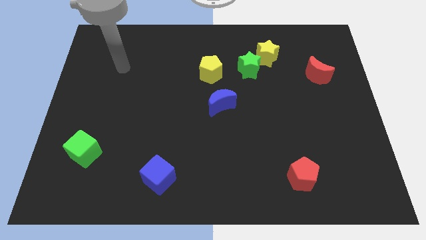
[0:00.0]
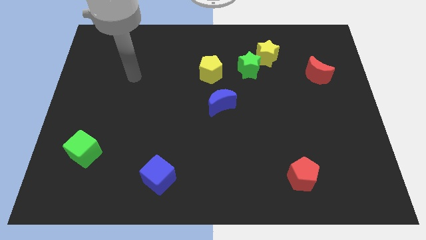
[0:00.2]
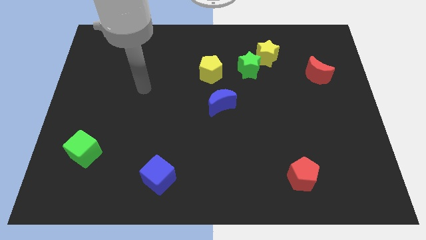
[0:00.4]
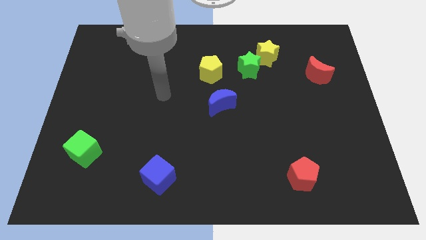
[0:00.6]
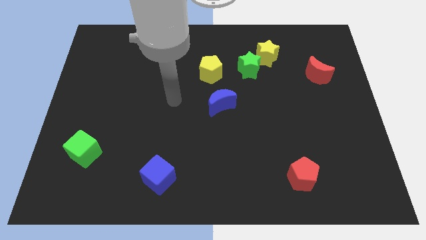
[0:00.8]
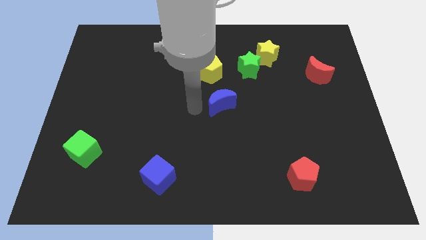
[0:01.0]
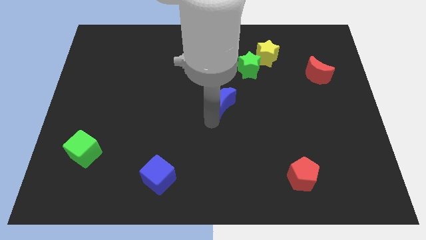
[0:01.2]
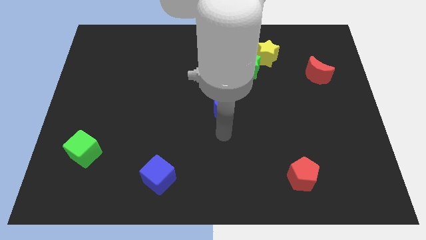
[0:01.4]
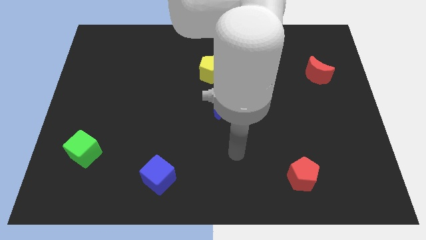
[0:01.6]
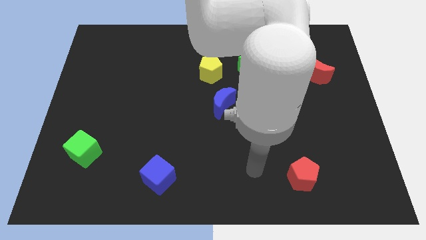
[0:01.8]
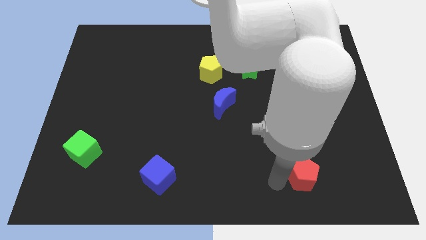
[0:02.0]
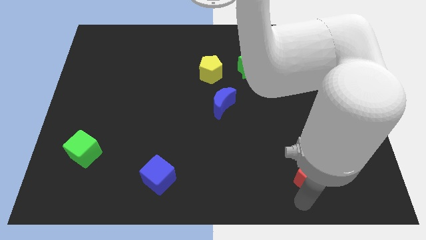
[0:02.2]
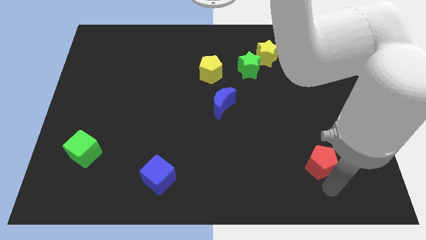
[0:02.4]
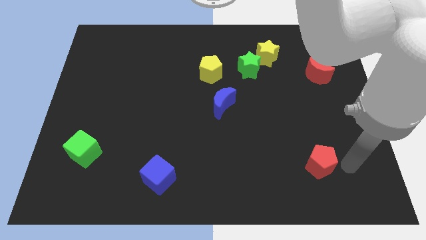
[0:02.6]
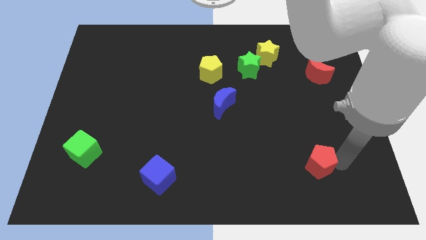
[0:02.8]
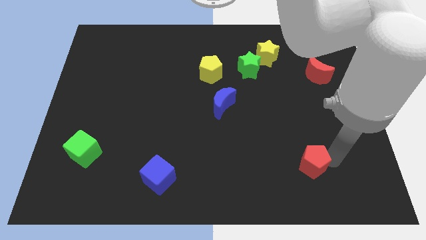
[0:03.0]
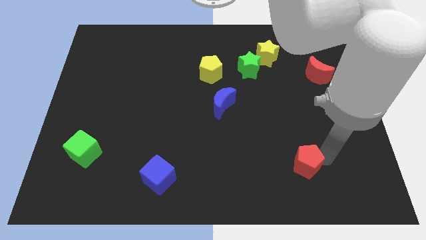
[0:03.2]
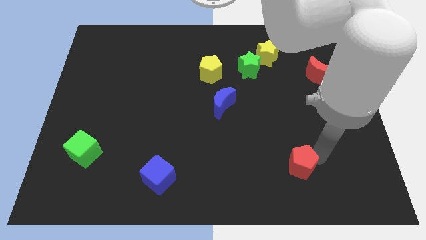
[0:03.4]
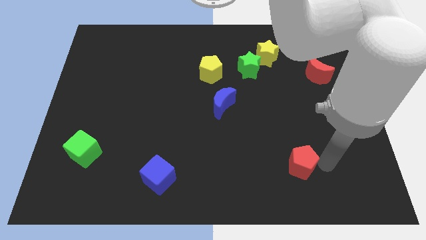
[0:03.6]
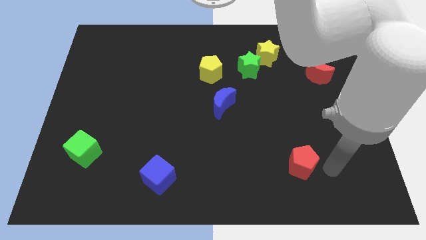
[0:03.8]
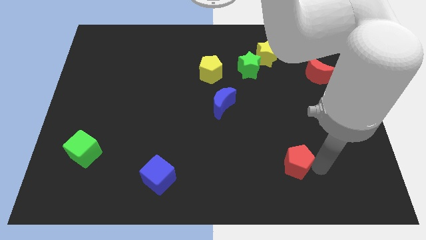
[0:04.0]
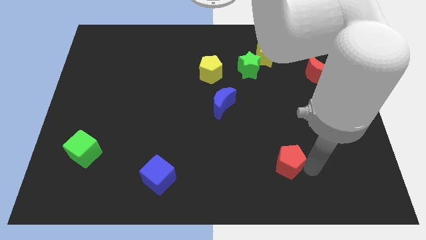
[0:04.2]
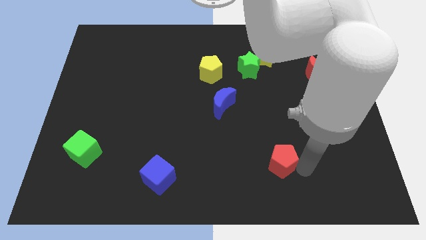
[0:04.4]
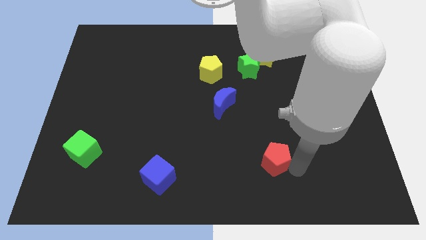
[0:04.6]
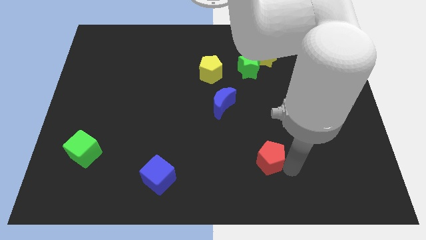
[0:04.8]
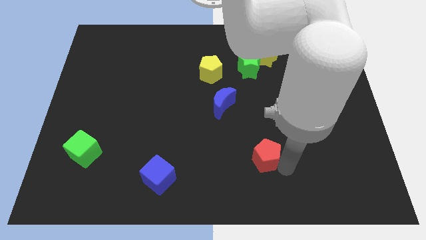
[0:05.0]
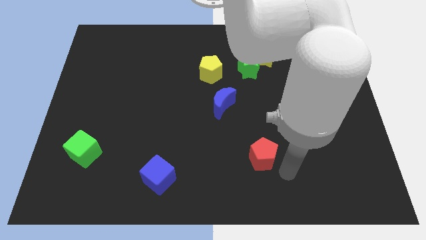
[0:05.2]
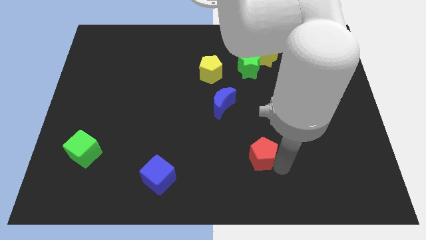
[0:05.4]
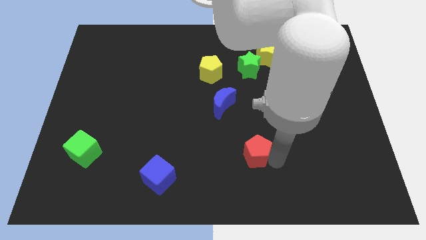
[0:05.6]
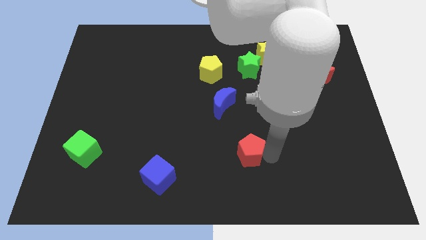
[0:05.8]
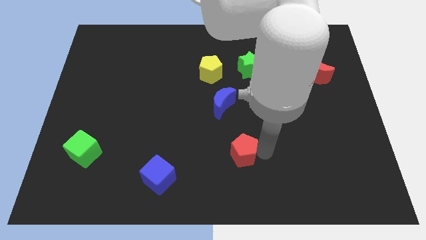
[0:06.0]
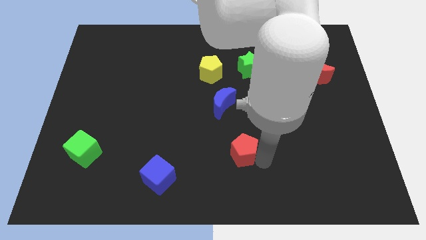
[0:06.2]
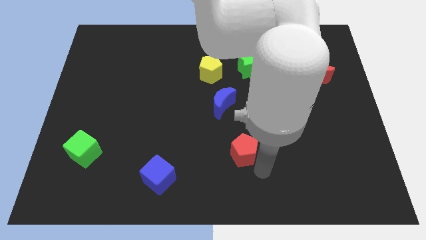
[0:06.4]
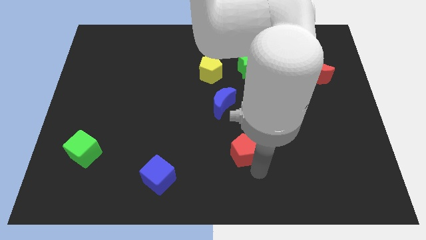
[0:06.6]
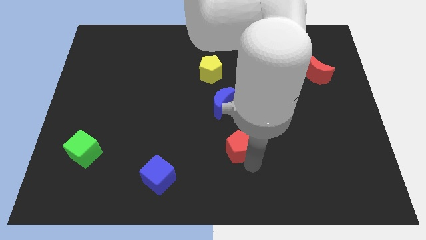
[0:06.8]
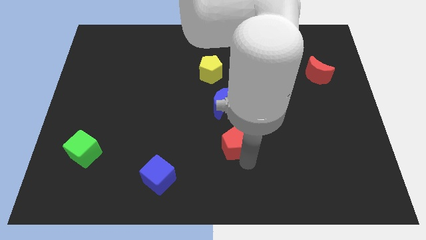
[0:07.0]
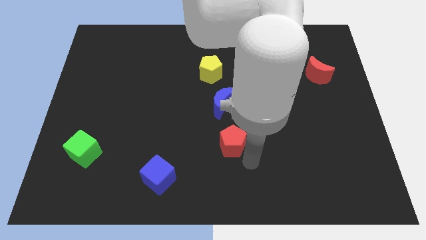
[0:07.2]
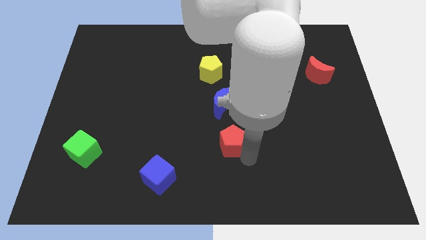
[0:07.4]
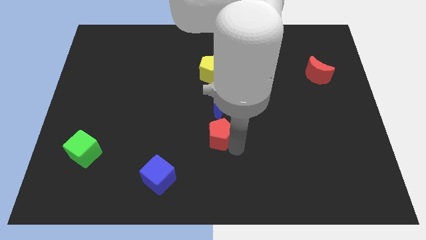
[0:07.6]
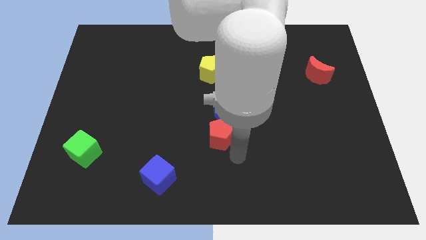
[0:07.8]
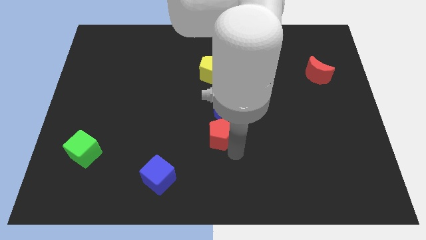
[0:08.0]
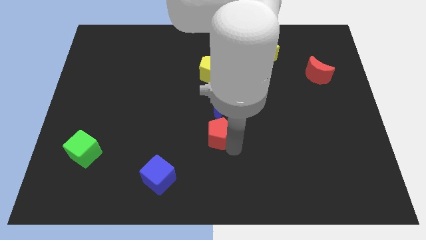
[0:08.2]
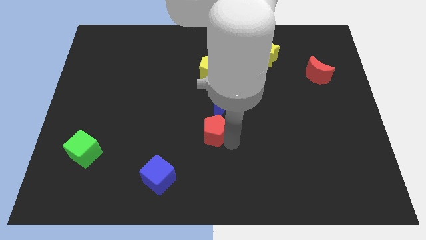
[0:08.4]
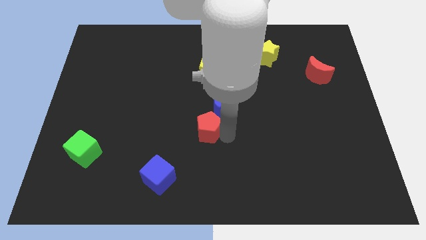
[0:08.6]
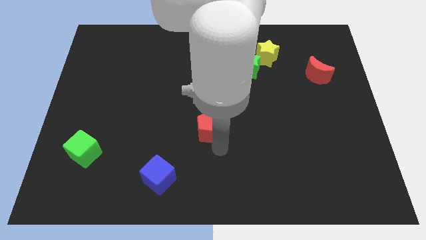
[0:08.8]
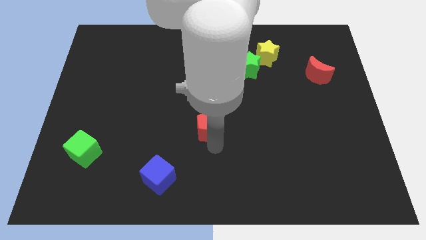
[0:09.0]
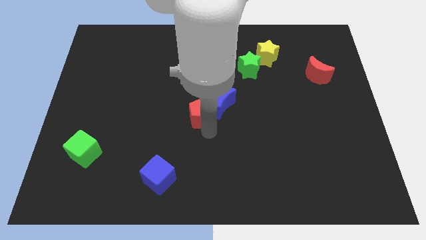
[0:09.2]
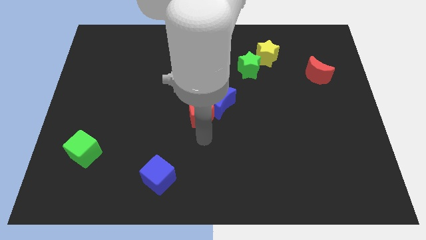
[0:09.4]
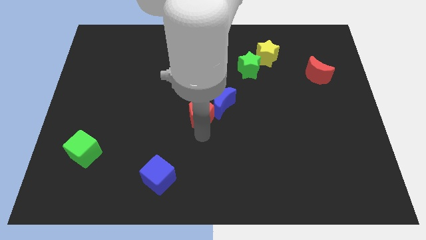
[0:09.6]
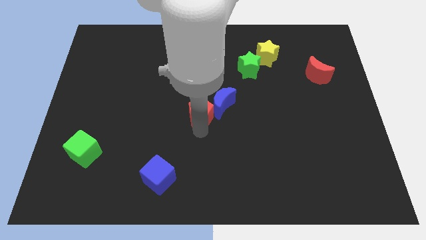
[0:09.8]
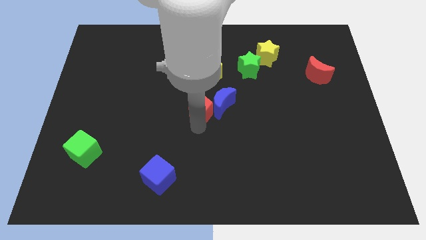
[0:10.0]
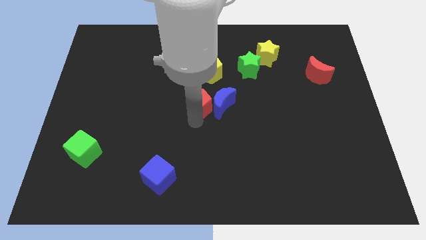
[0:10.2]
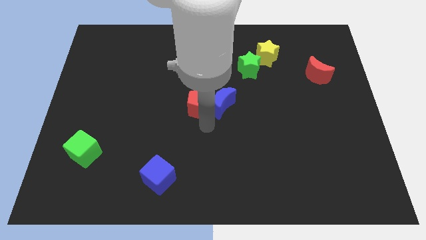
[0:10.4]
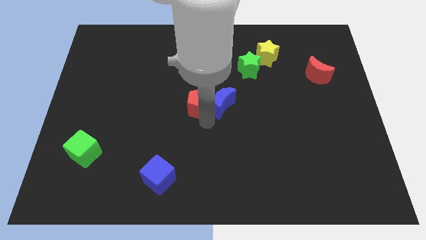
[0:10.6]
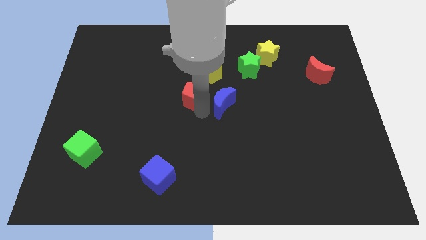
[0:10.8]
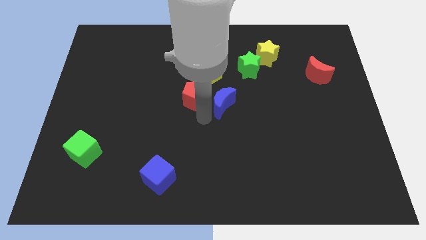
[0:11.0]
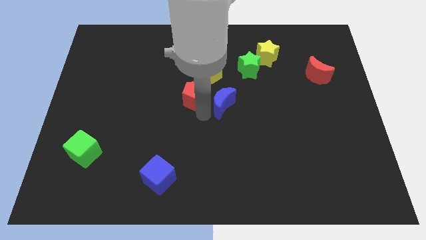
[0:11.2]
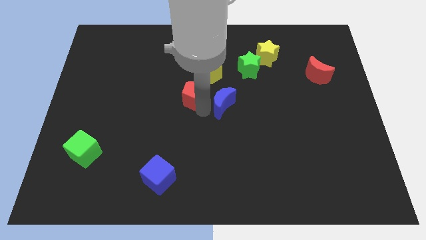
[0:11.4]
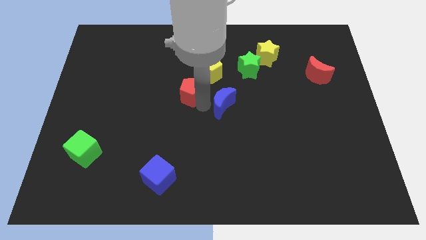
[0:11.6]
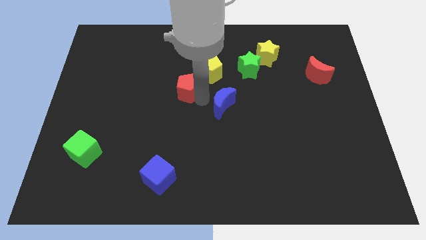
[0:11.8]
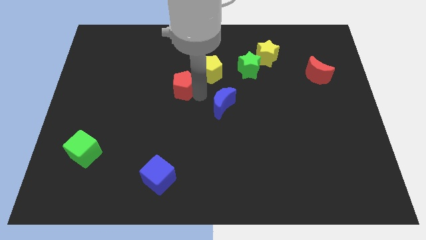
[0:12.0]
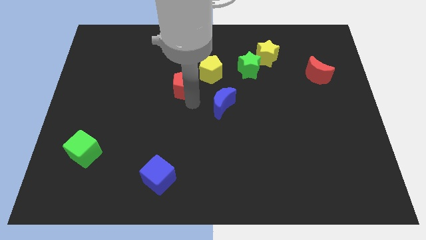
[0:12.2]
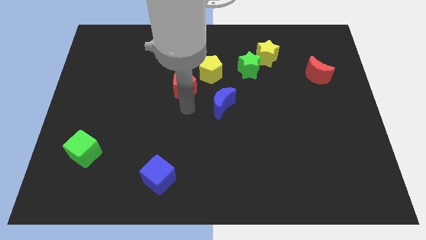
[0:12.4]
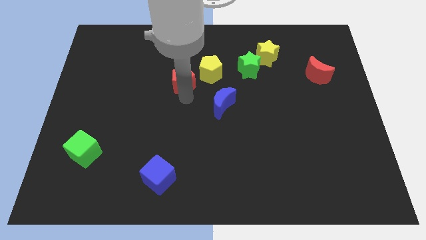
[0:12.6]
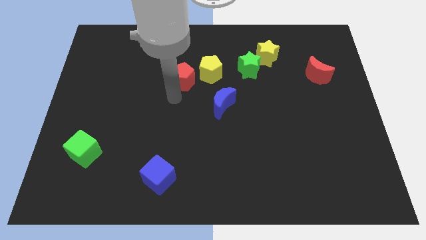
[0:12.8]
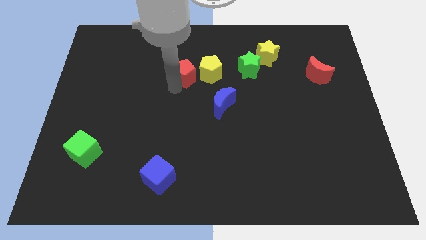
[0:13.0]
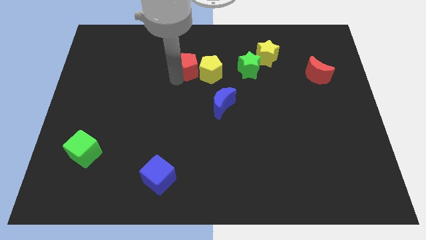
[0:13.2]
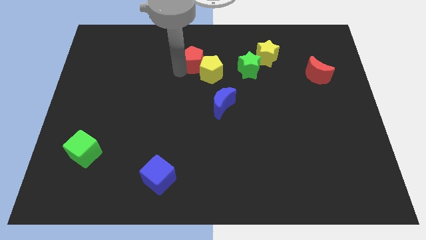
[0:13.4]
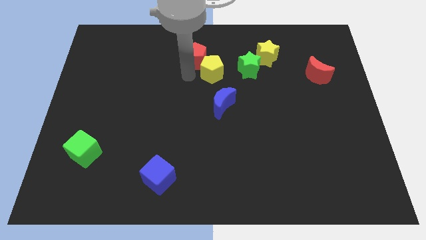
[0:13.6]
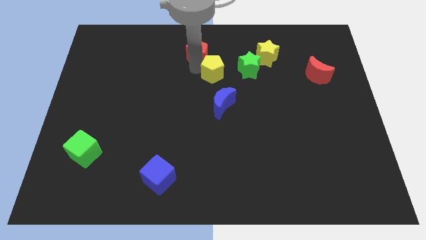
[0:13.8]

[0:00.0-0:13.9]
slide the red pentagon to the top side

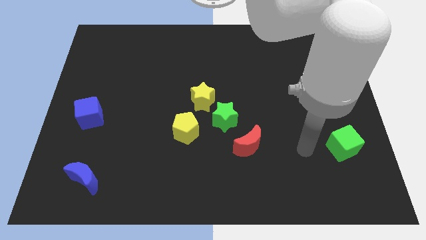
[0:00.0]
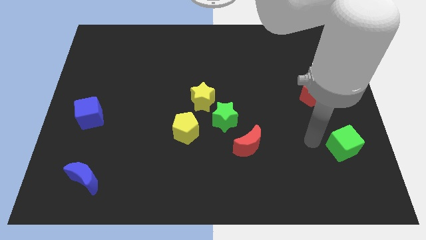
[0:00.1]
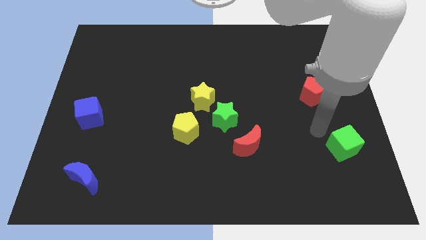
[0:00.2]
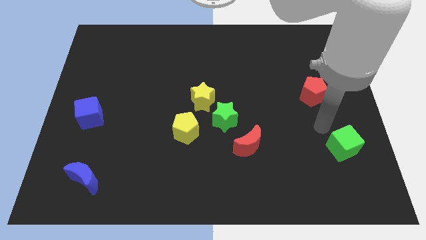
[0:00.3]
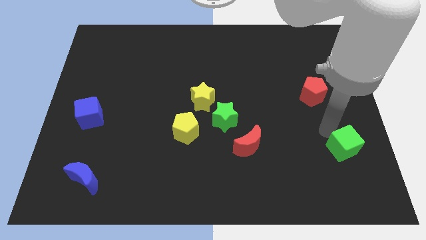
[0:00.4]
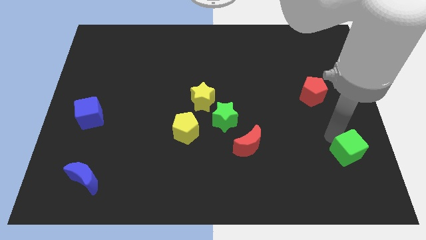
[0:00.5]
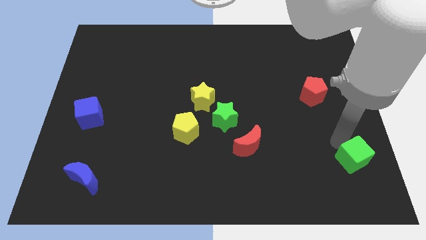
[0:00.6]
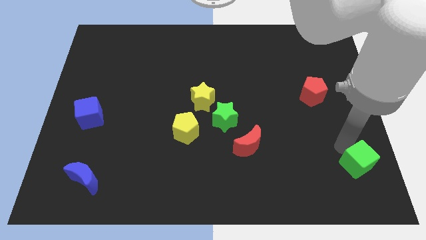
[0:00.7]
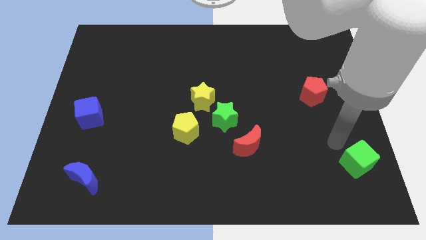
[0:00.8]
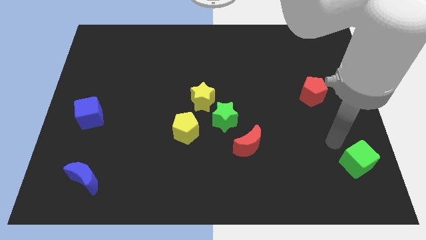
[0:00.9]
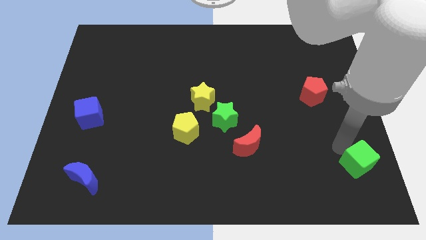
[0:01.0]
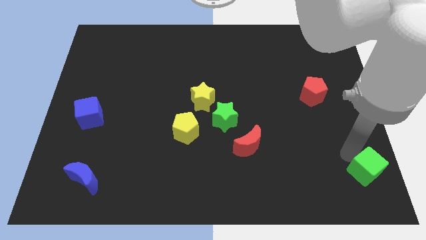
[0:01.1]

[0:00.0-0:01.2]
push the green cube to the bottom right
